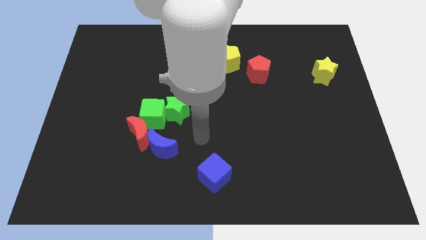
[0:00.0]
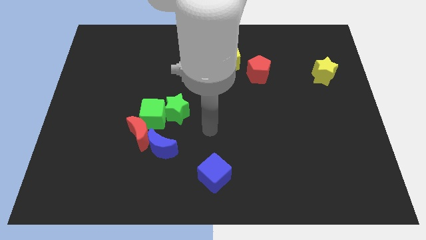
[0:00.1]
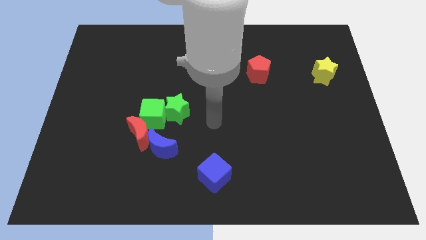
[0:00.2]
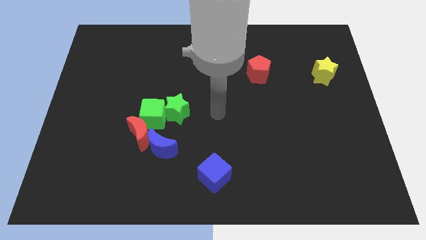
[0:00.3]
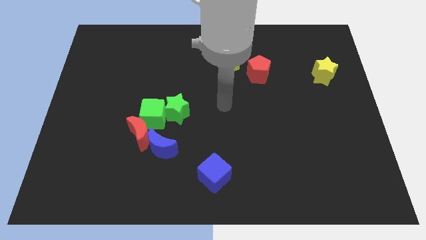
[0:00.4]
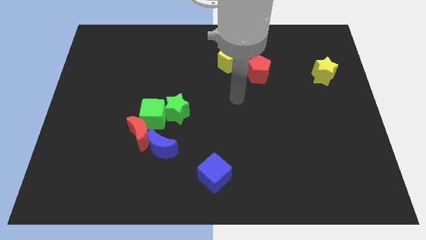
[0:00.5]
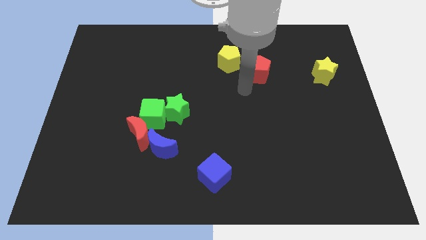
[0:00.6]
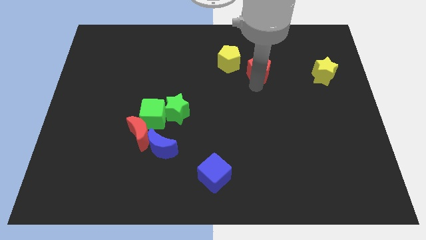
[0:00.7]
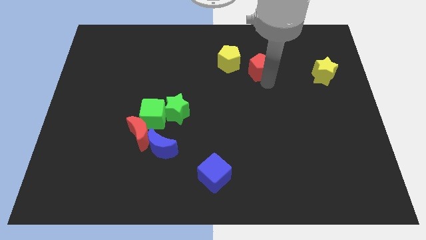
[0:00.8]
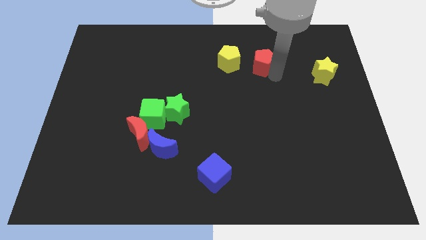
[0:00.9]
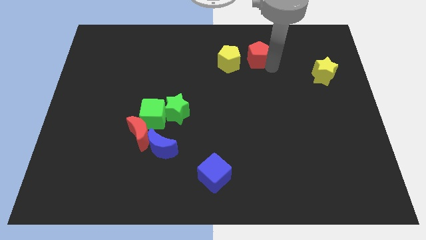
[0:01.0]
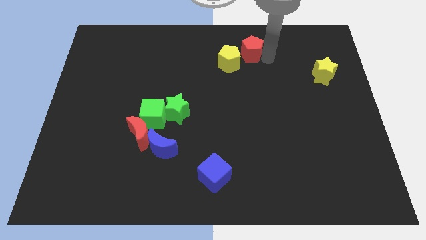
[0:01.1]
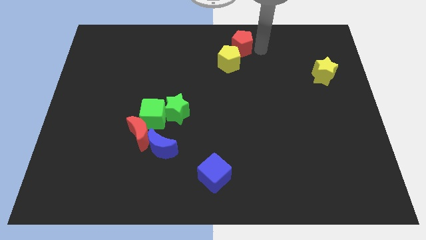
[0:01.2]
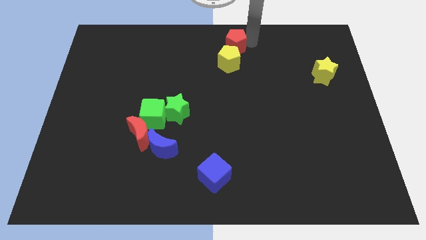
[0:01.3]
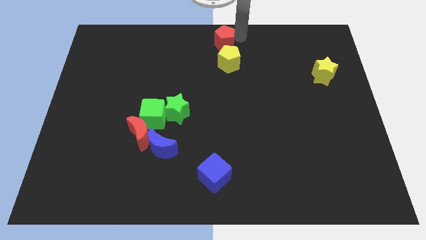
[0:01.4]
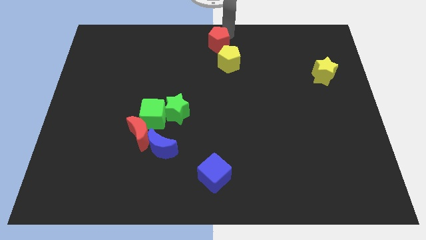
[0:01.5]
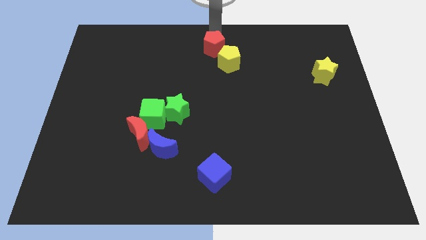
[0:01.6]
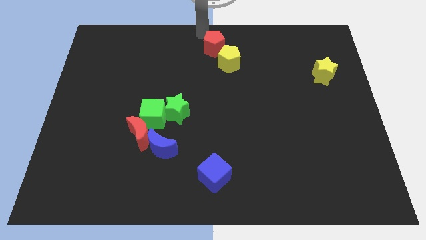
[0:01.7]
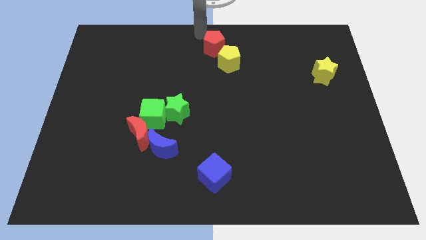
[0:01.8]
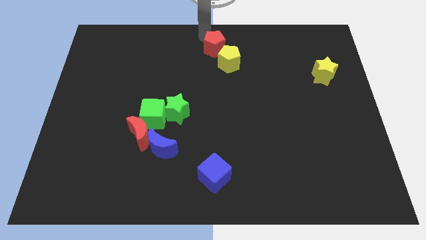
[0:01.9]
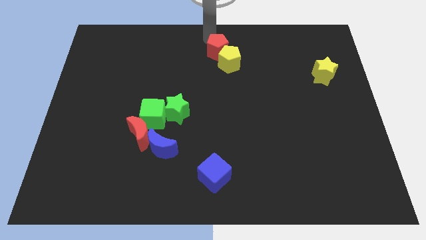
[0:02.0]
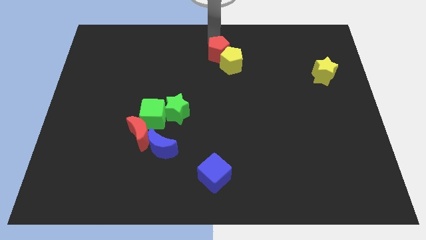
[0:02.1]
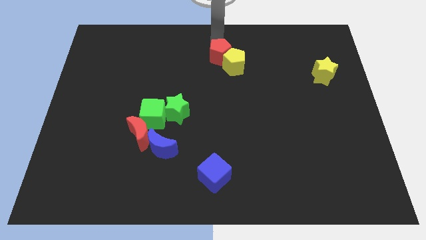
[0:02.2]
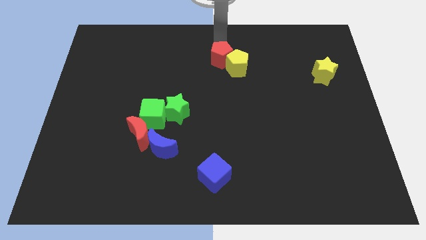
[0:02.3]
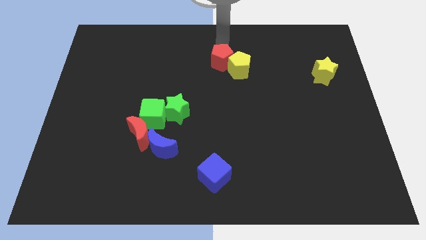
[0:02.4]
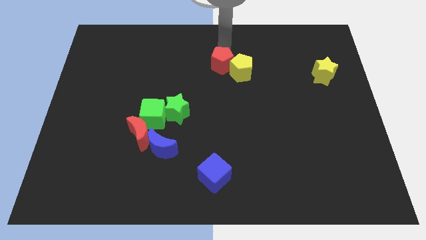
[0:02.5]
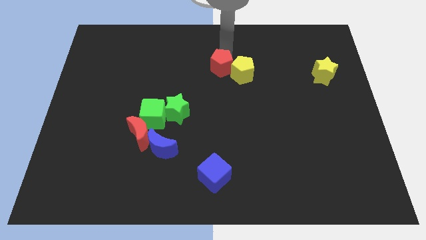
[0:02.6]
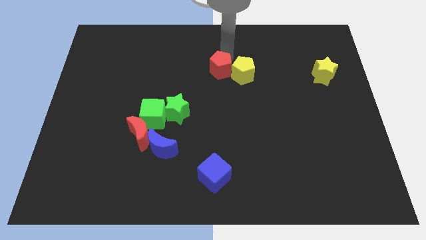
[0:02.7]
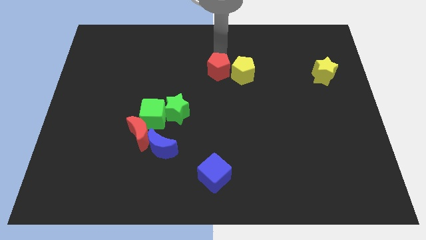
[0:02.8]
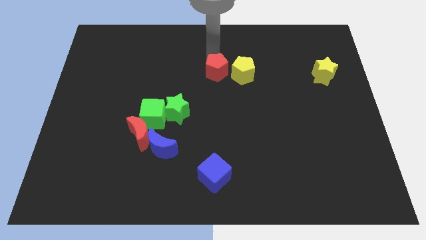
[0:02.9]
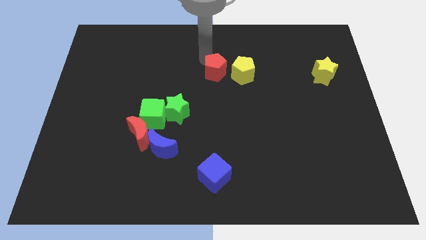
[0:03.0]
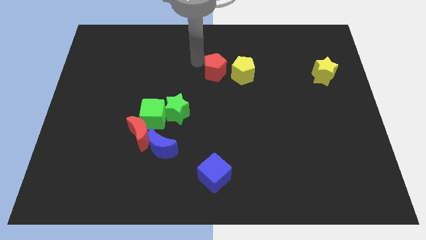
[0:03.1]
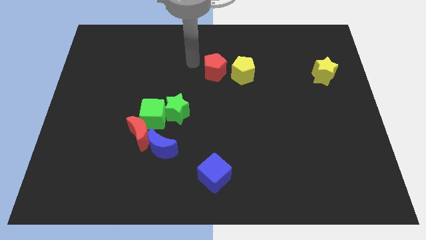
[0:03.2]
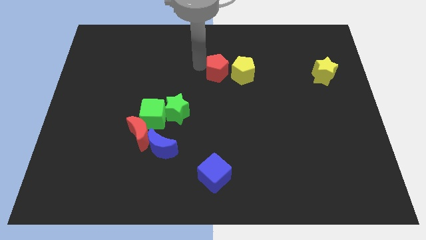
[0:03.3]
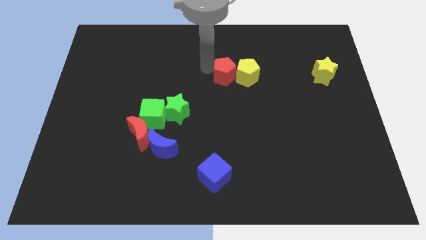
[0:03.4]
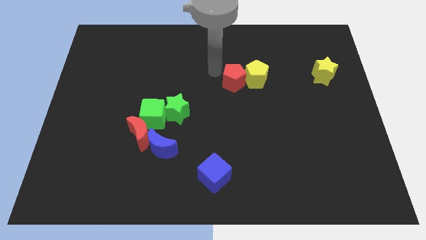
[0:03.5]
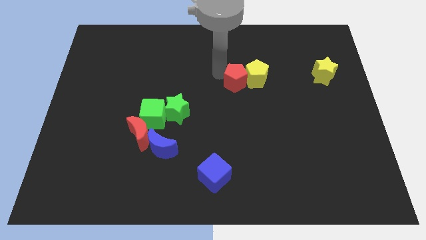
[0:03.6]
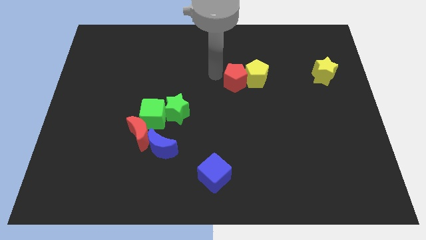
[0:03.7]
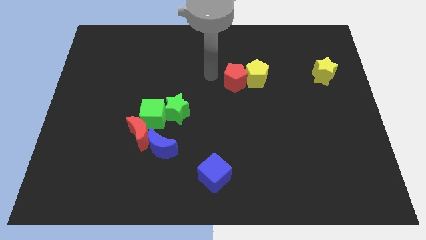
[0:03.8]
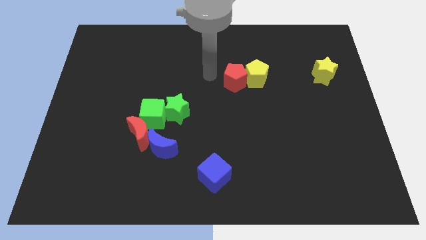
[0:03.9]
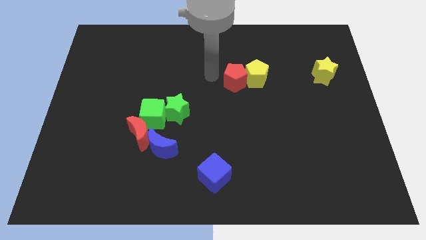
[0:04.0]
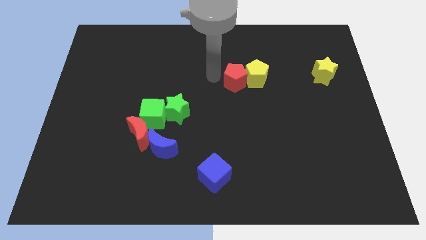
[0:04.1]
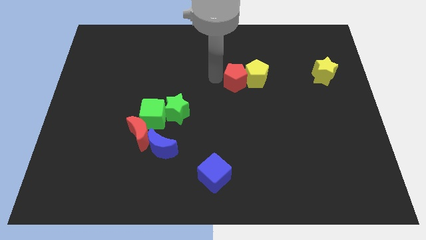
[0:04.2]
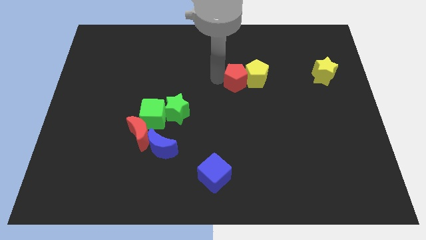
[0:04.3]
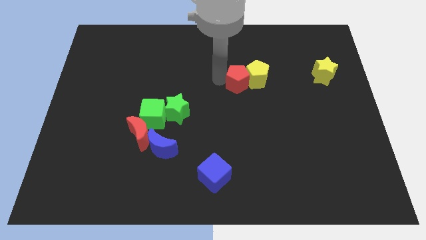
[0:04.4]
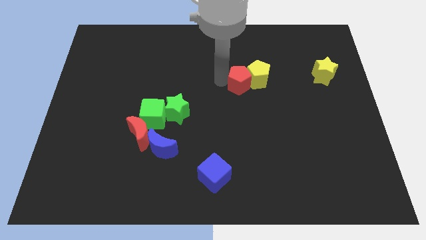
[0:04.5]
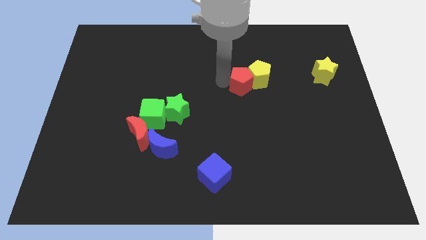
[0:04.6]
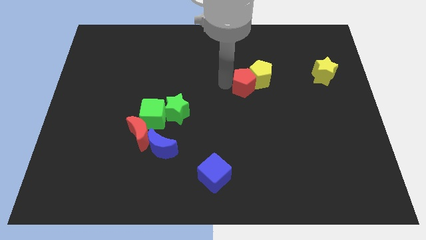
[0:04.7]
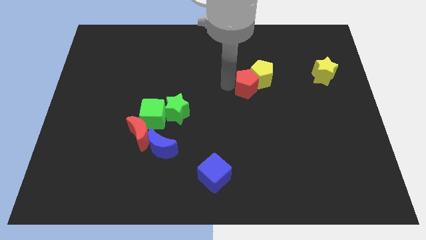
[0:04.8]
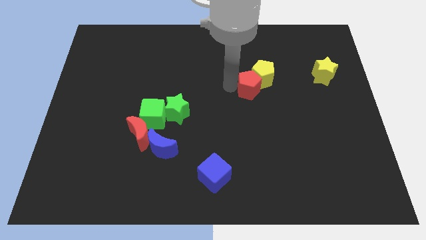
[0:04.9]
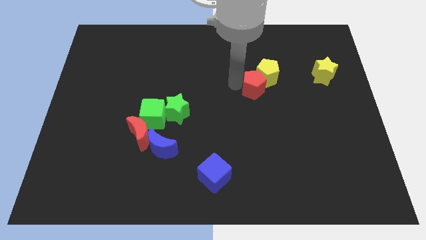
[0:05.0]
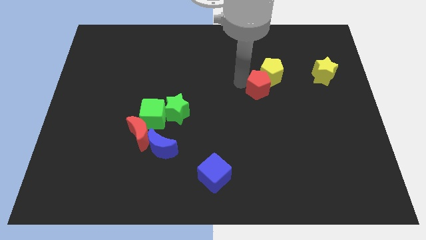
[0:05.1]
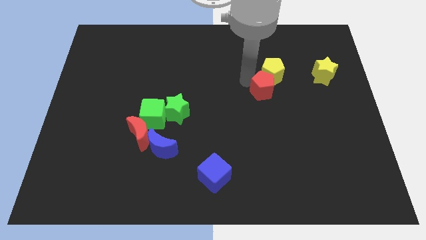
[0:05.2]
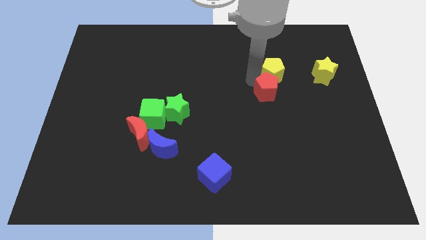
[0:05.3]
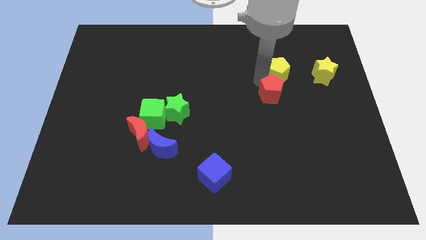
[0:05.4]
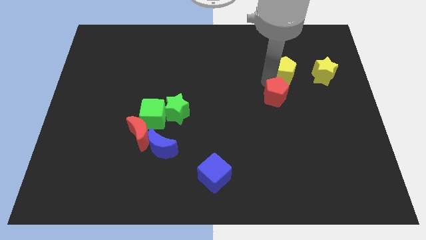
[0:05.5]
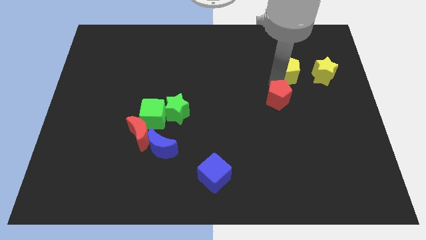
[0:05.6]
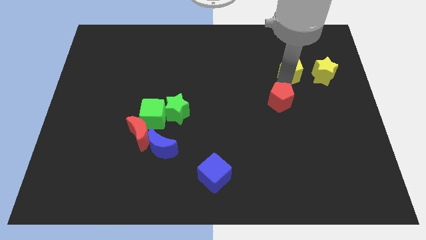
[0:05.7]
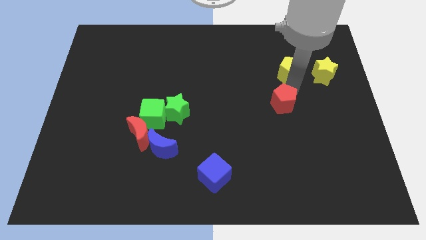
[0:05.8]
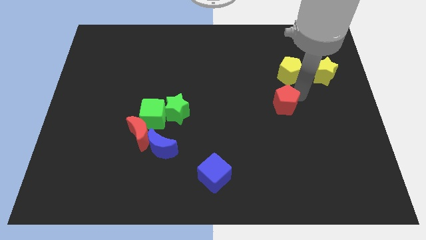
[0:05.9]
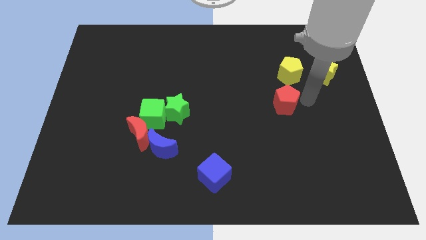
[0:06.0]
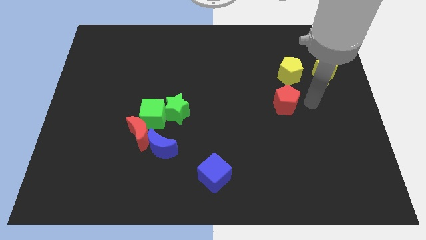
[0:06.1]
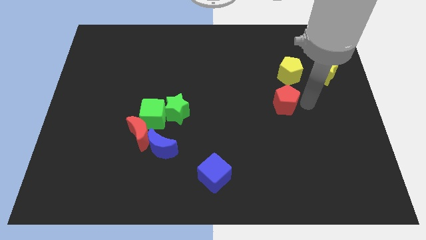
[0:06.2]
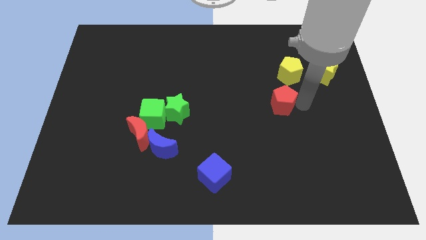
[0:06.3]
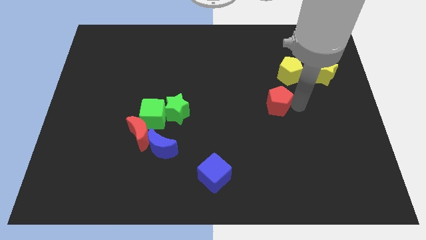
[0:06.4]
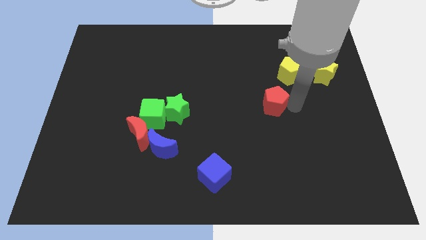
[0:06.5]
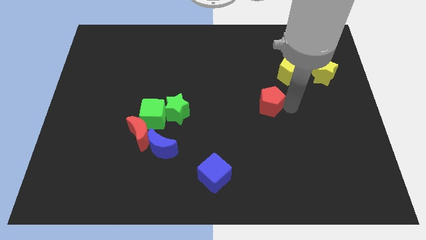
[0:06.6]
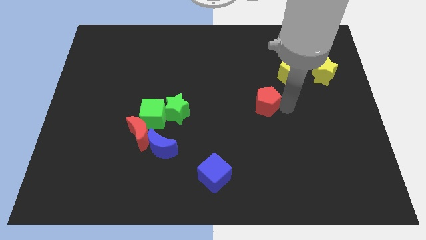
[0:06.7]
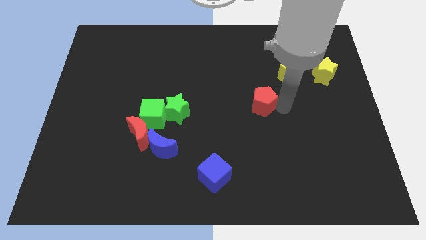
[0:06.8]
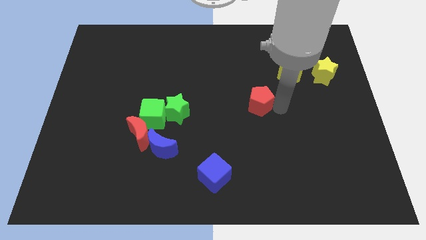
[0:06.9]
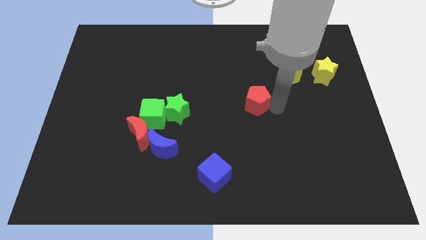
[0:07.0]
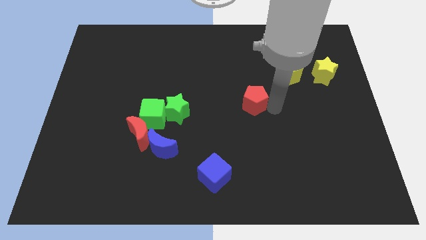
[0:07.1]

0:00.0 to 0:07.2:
move the red pentagon diagonally downwards and left a little bit

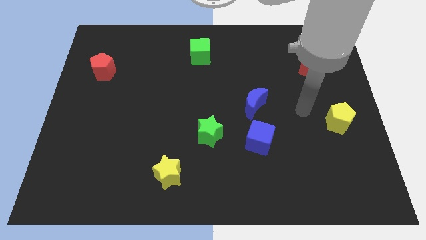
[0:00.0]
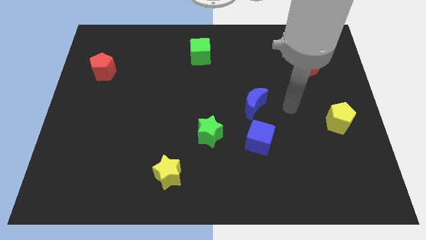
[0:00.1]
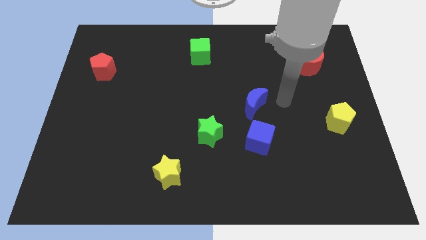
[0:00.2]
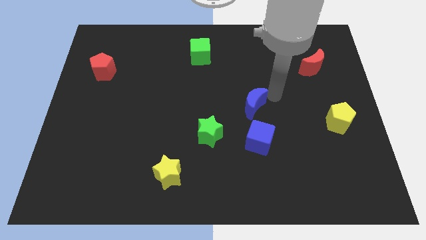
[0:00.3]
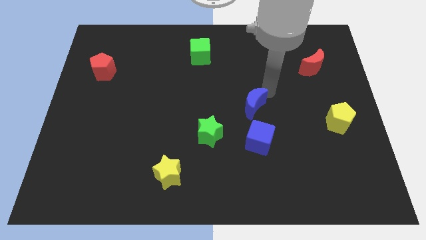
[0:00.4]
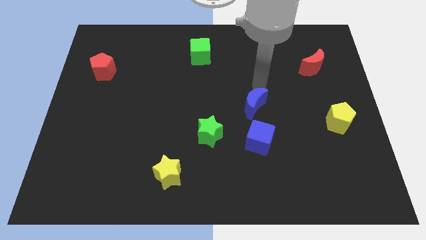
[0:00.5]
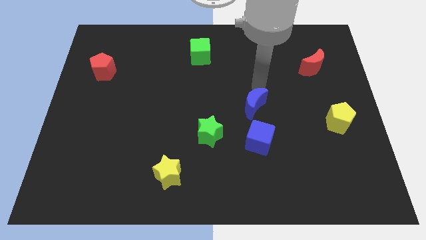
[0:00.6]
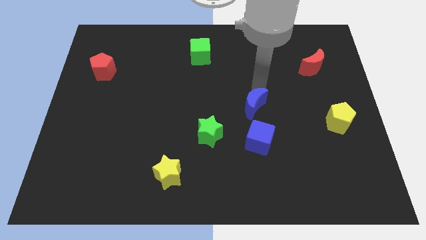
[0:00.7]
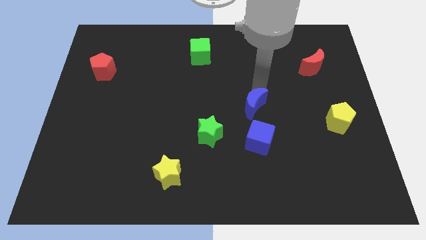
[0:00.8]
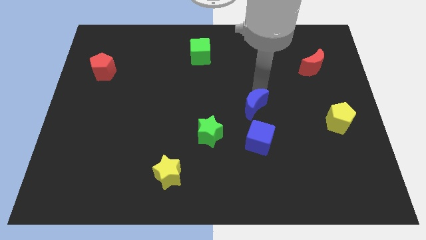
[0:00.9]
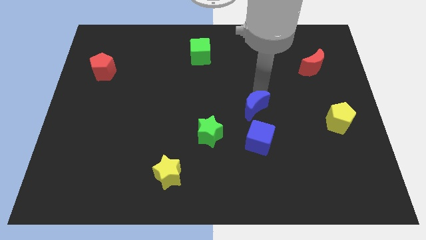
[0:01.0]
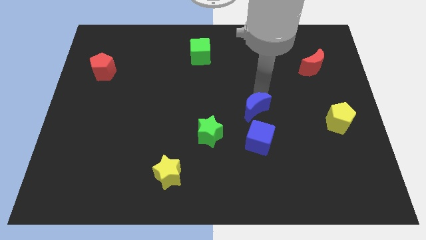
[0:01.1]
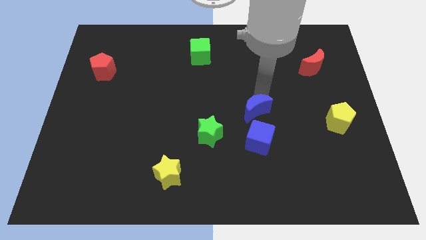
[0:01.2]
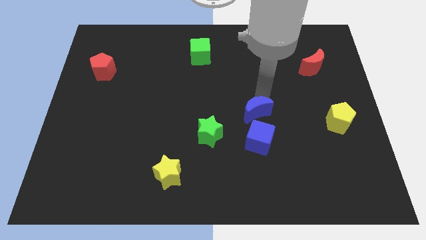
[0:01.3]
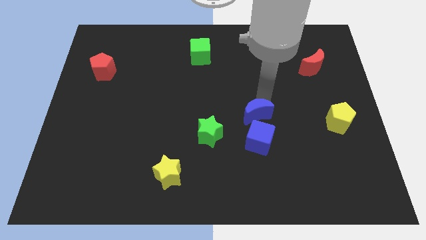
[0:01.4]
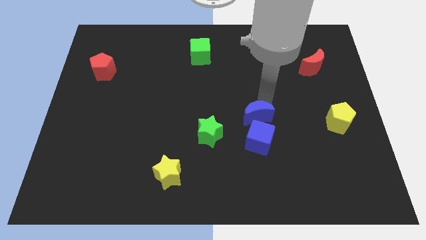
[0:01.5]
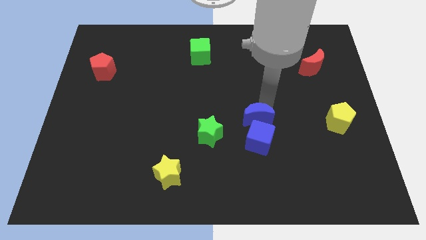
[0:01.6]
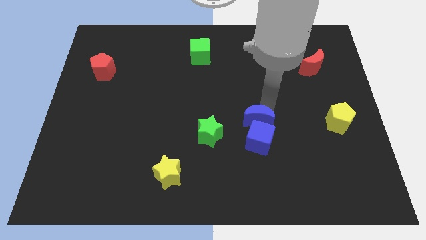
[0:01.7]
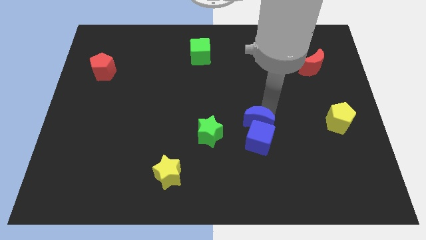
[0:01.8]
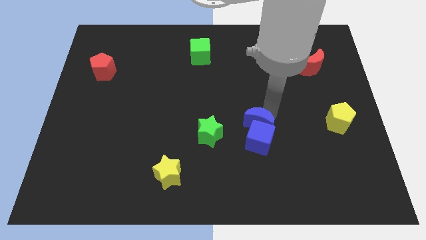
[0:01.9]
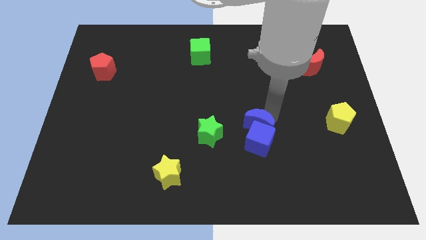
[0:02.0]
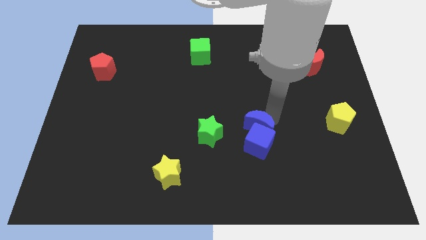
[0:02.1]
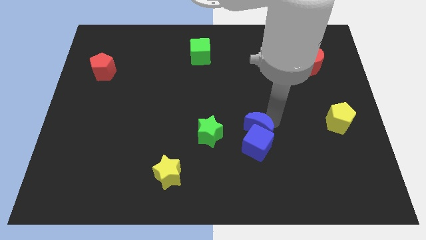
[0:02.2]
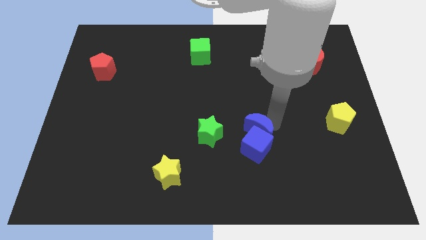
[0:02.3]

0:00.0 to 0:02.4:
slide the blue moon down a bit
